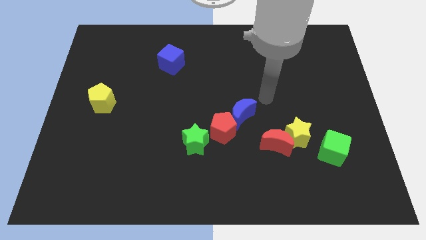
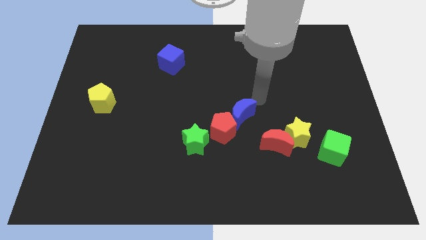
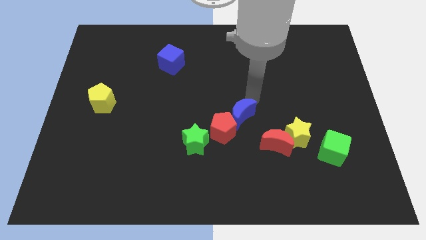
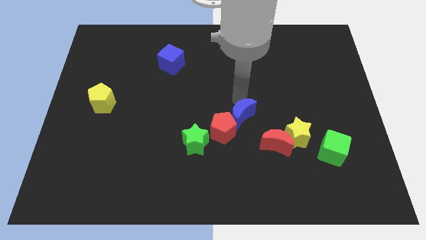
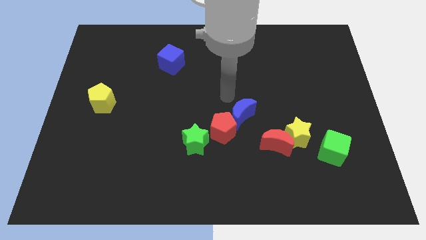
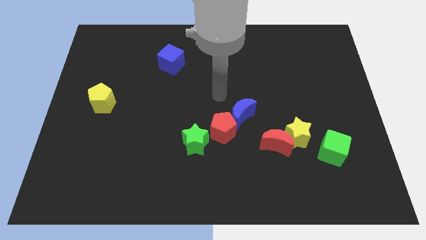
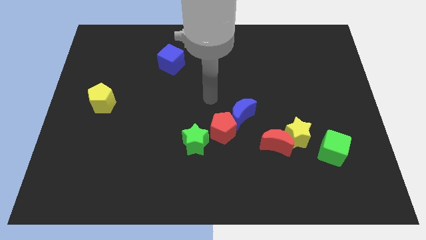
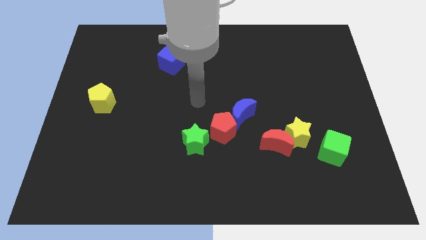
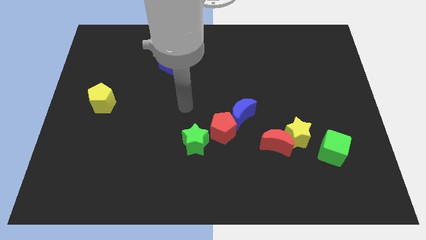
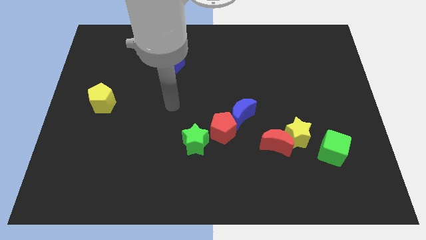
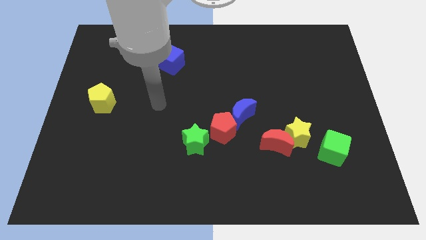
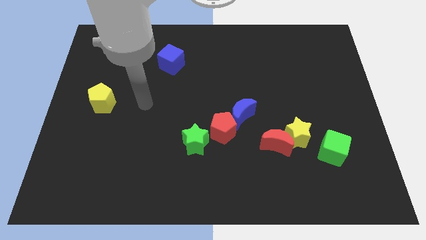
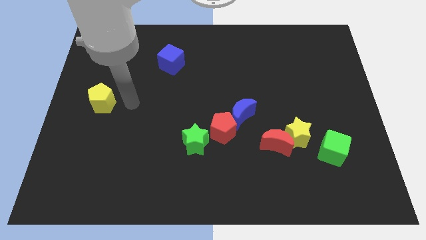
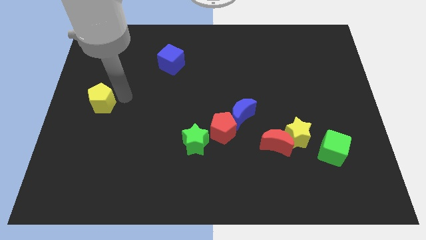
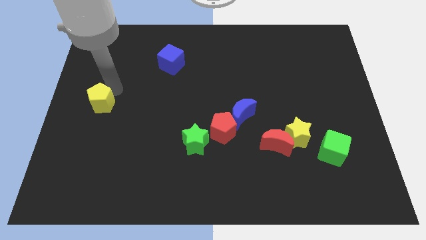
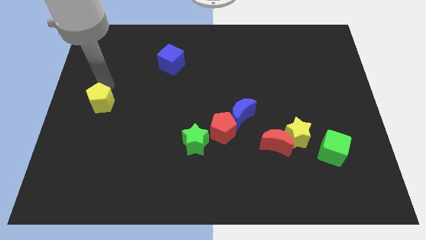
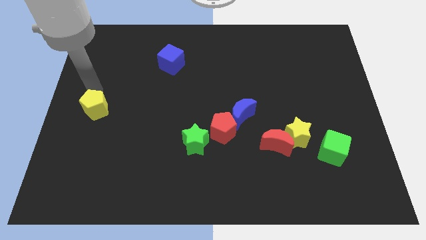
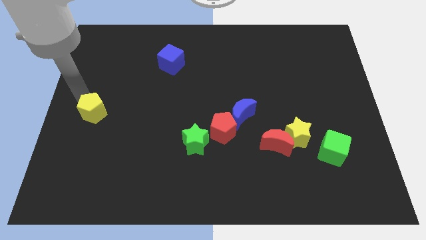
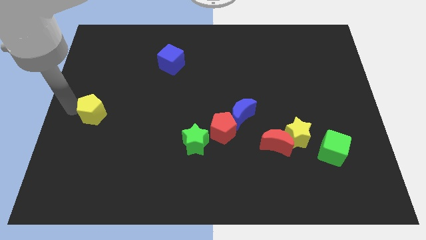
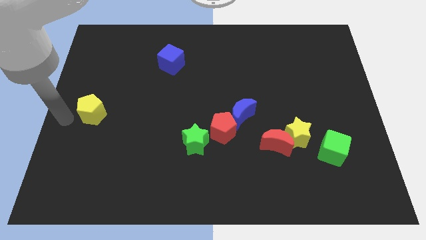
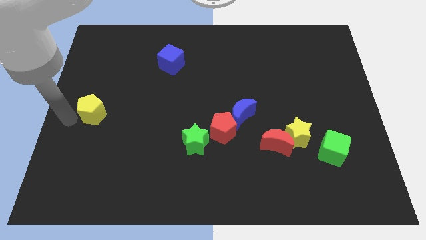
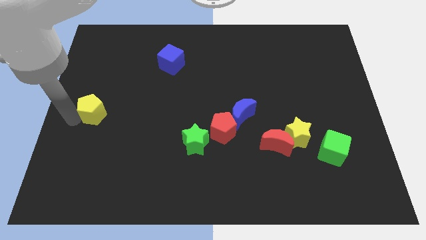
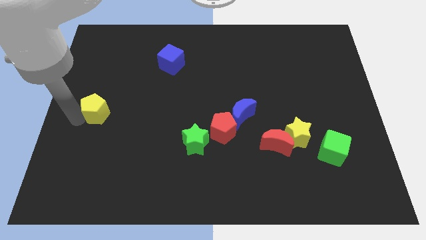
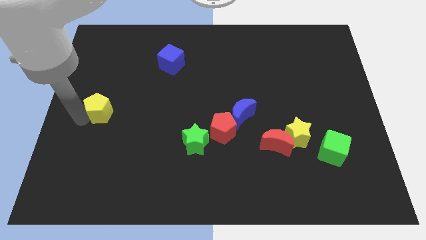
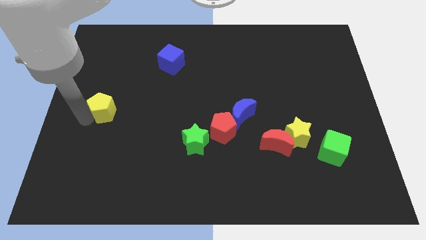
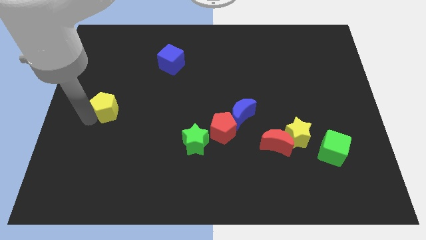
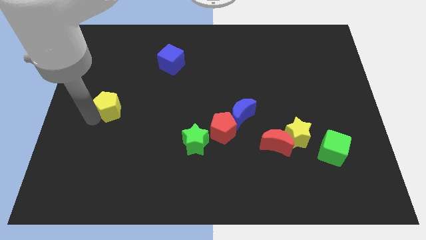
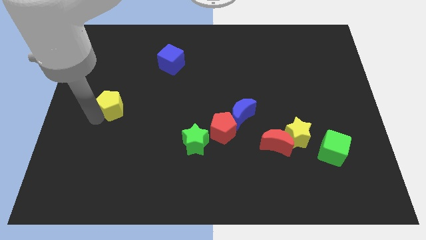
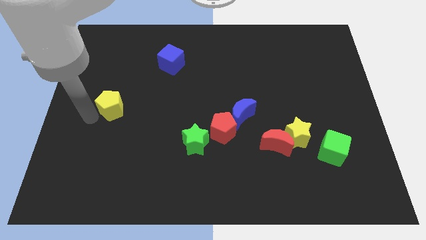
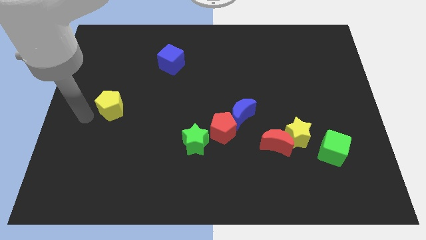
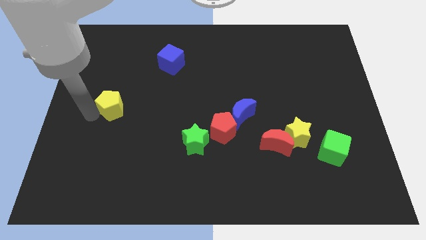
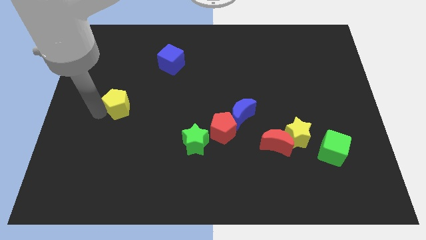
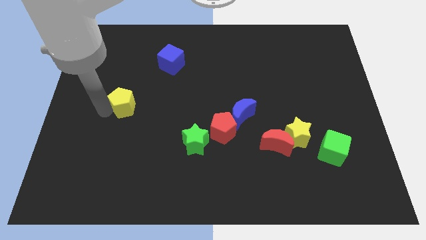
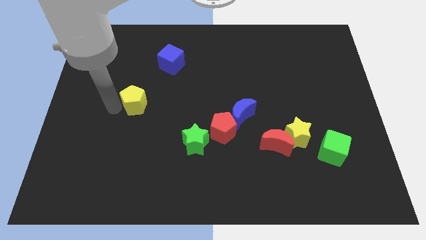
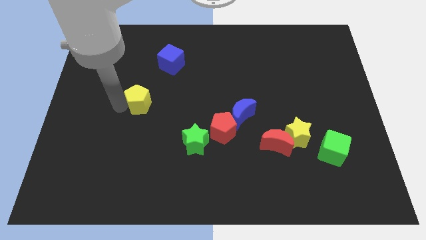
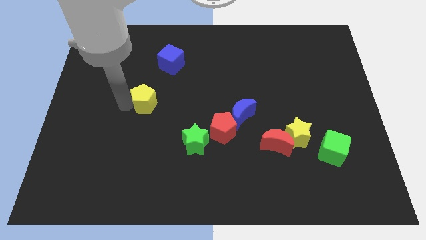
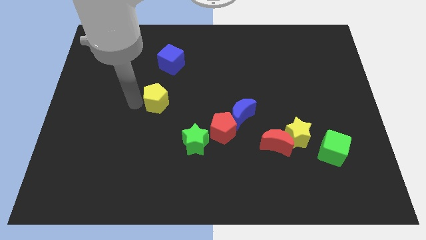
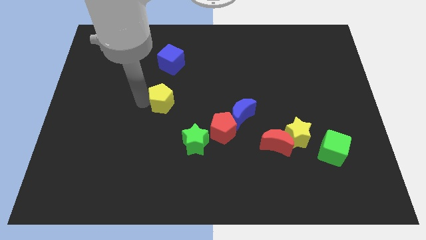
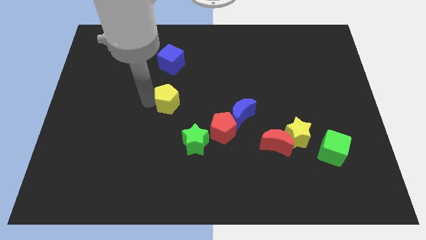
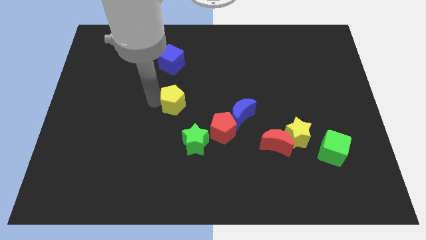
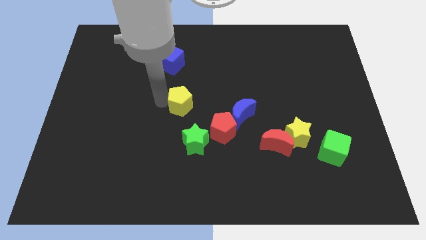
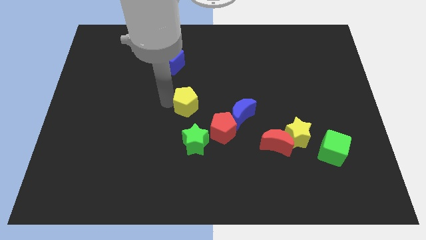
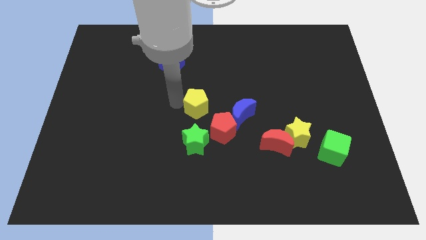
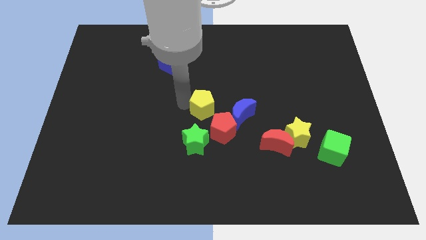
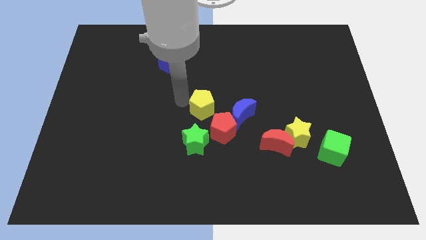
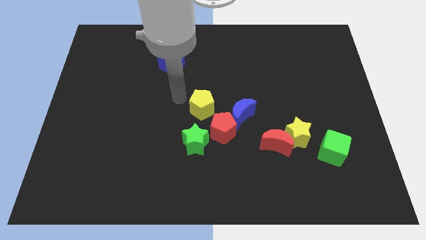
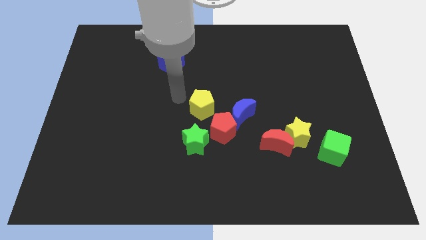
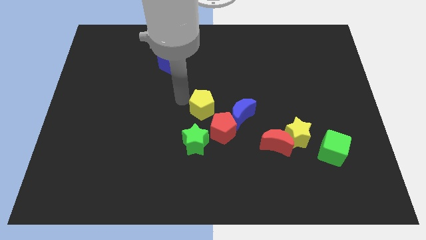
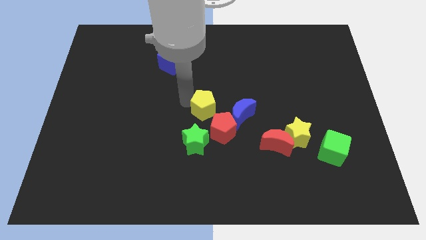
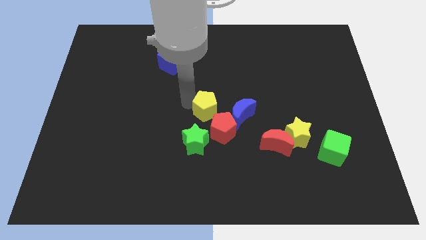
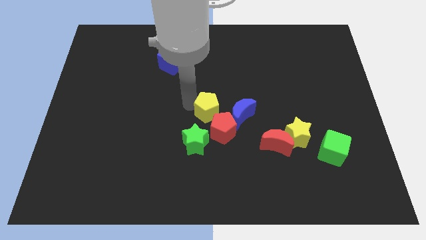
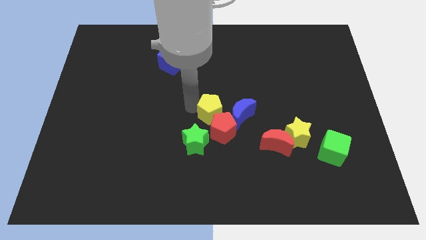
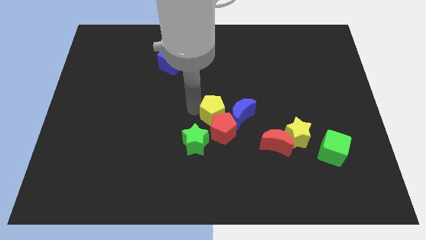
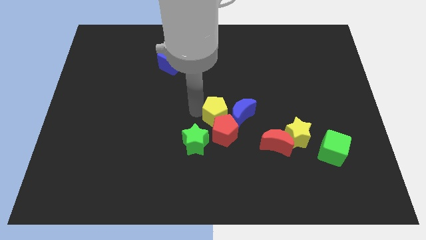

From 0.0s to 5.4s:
push the yellow pentagon next to the blue moon

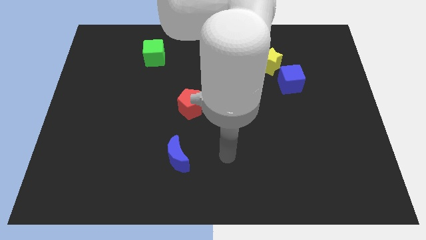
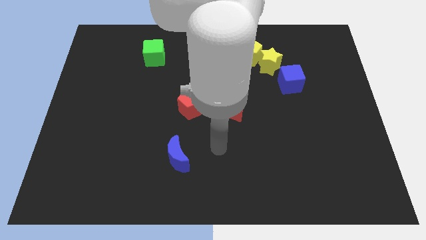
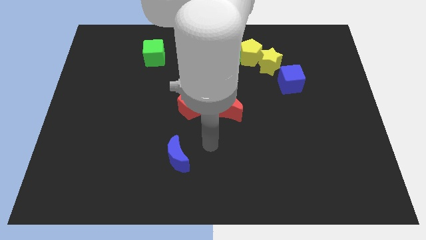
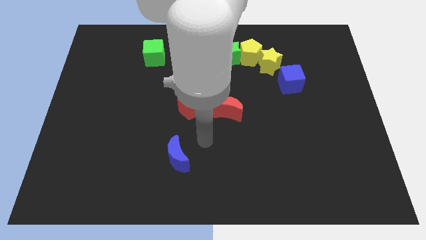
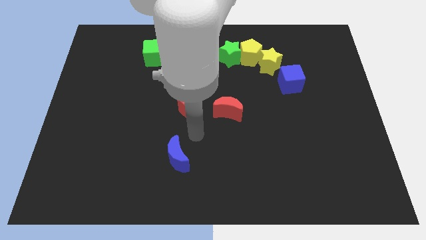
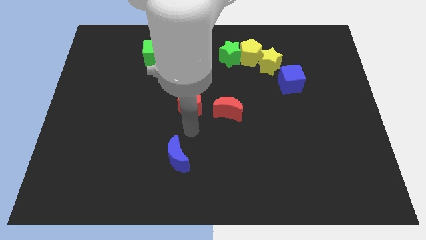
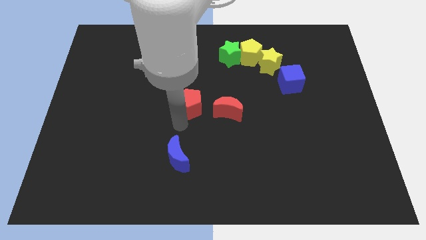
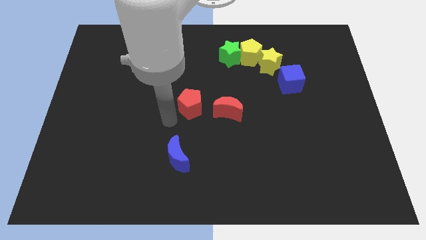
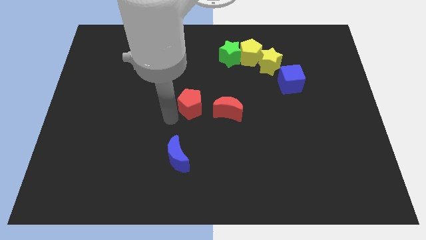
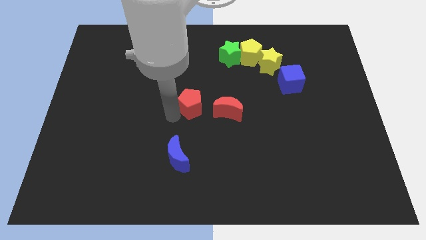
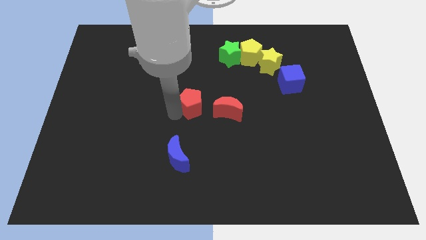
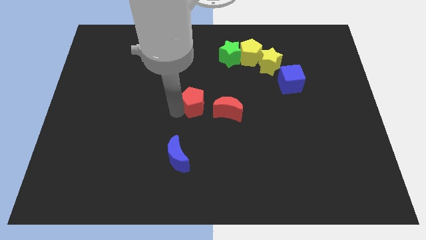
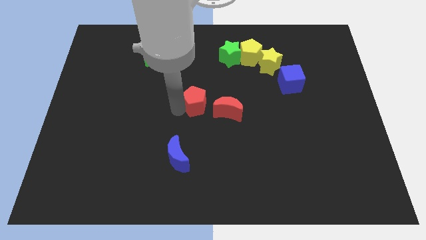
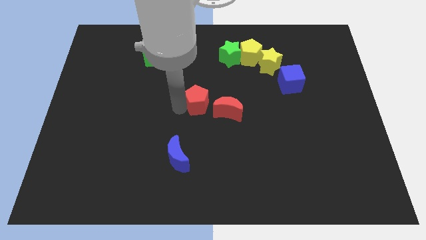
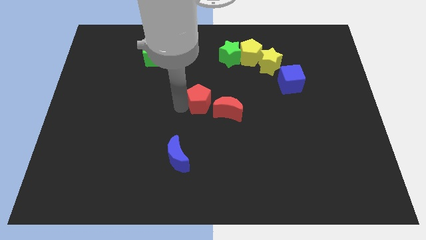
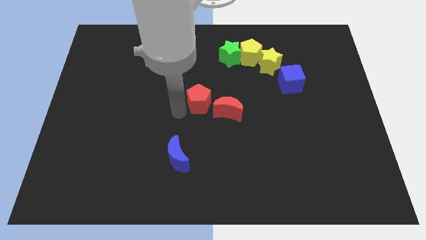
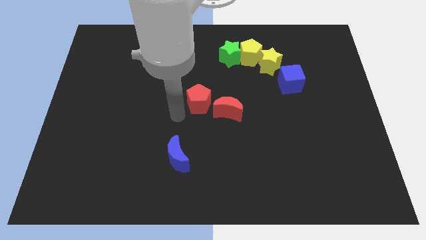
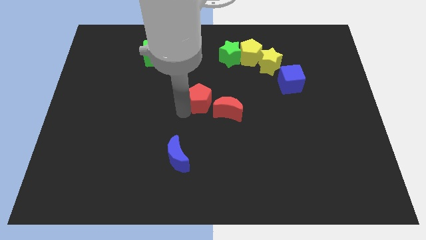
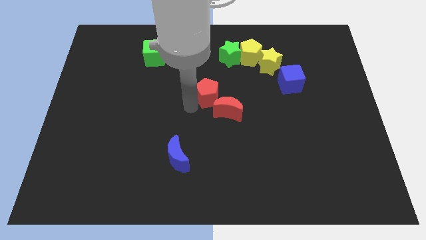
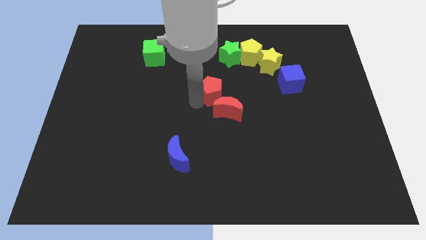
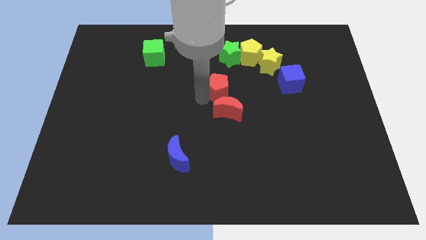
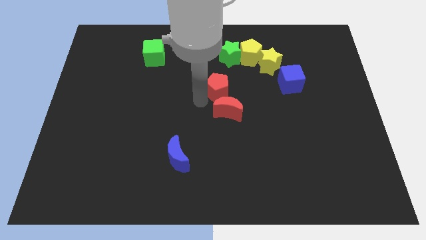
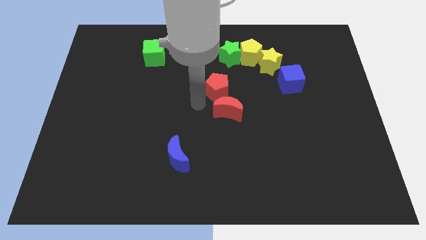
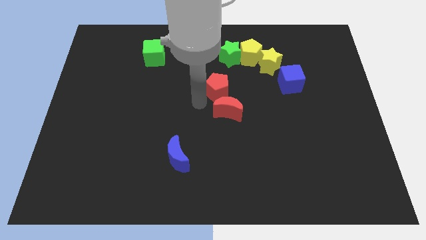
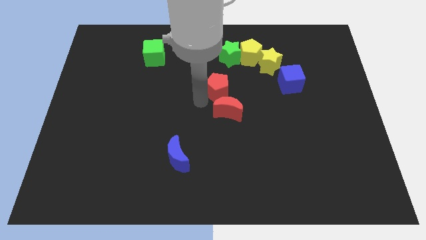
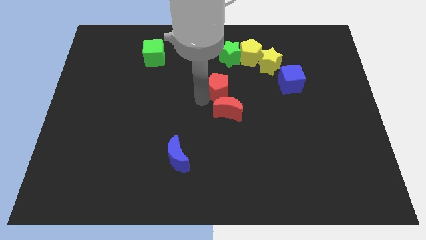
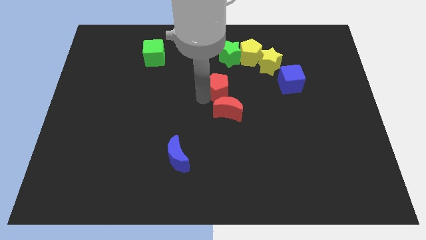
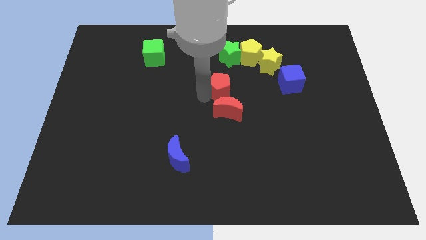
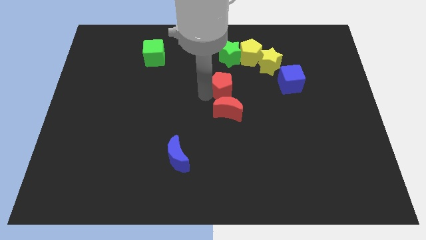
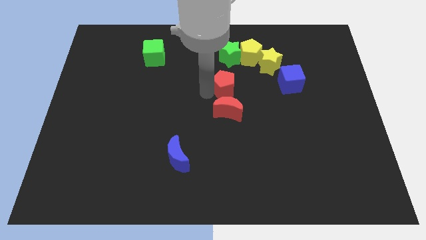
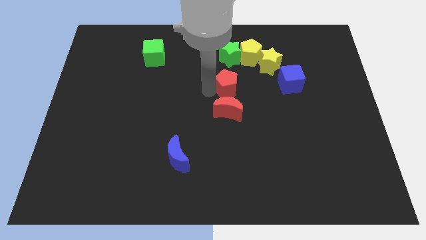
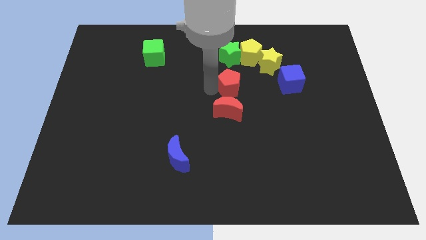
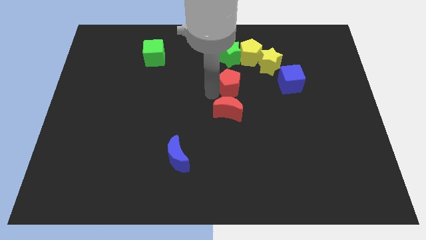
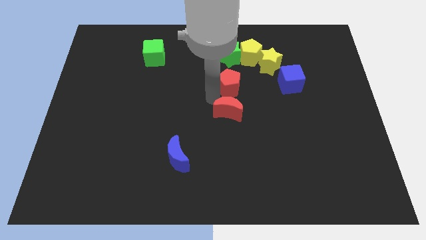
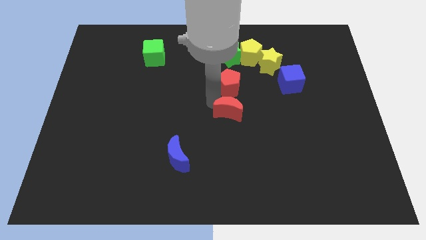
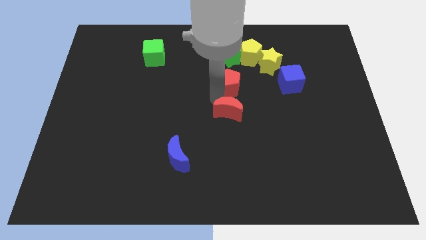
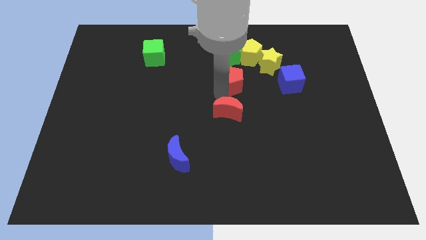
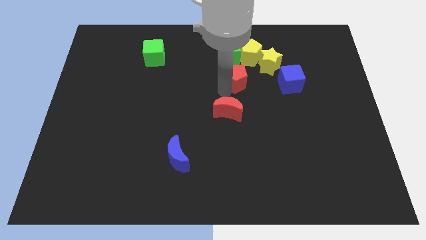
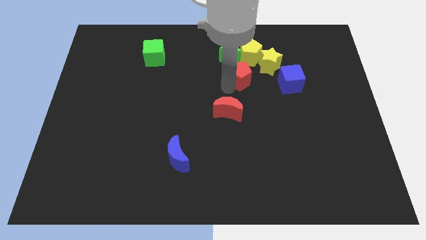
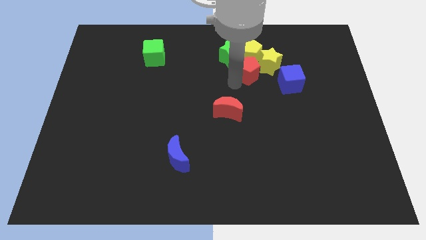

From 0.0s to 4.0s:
move the red pentagon towards the yellow pentagon
